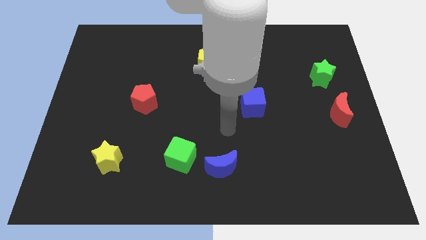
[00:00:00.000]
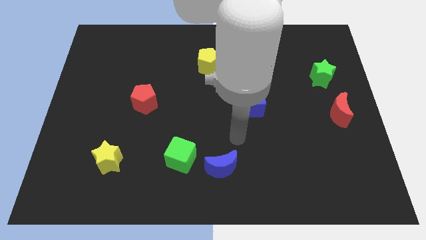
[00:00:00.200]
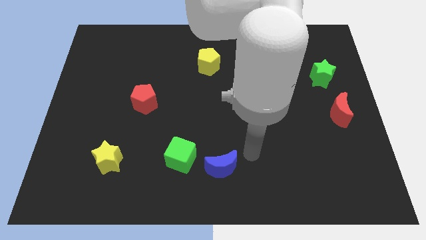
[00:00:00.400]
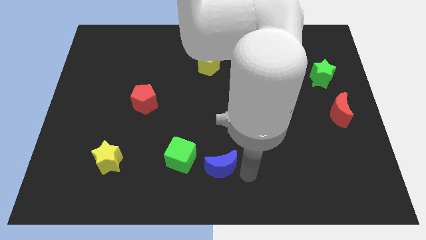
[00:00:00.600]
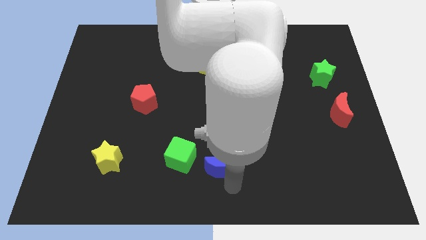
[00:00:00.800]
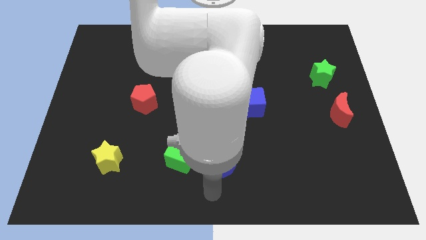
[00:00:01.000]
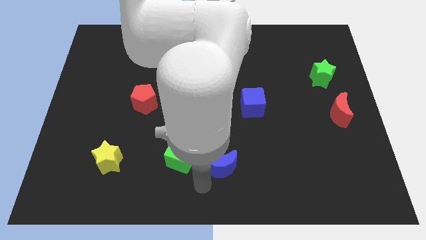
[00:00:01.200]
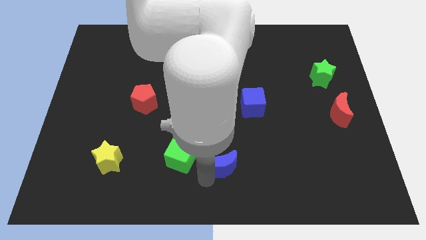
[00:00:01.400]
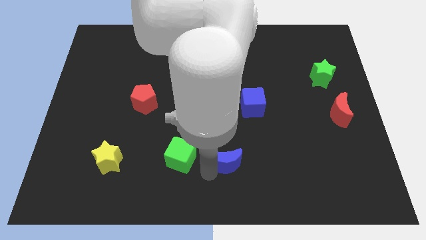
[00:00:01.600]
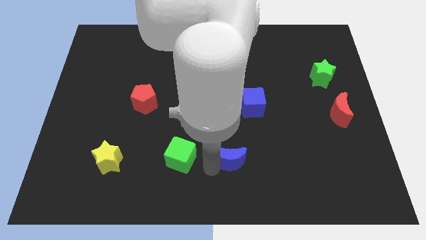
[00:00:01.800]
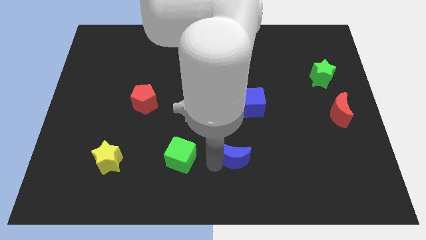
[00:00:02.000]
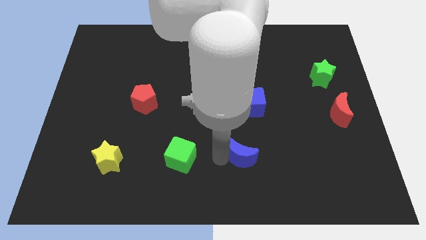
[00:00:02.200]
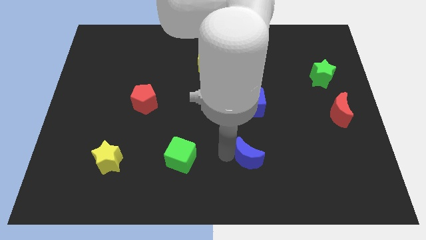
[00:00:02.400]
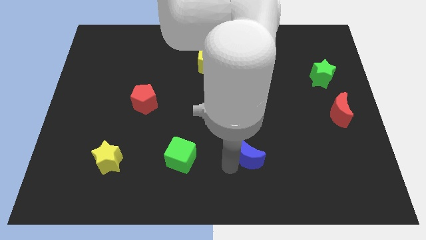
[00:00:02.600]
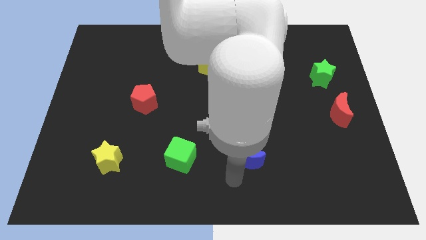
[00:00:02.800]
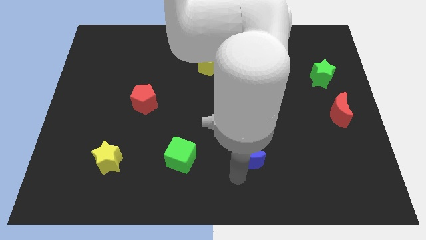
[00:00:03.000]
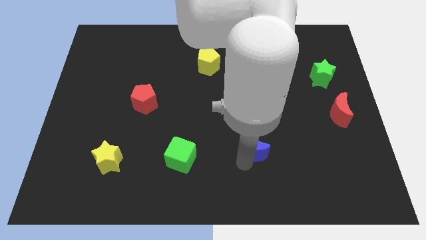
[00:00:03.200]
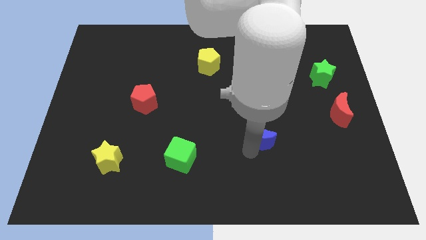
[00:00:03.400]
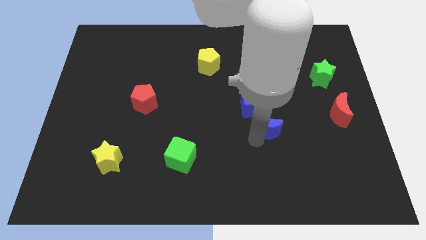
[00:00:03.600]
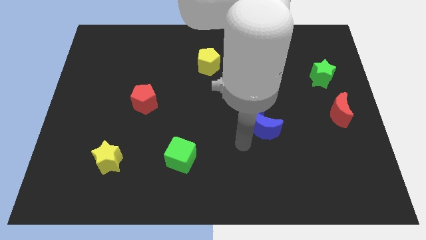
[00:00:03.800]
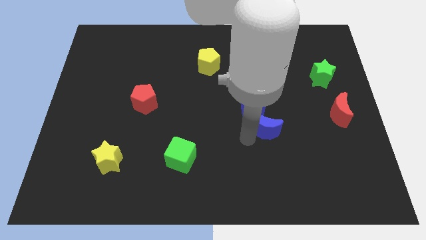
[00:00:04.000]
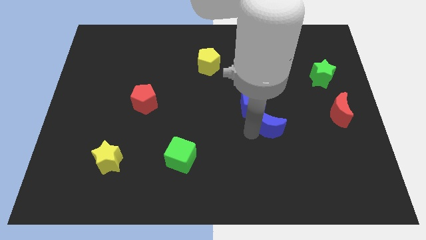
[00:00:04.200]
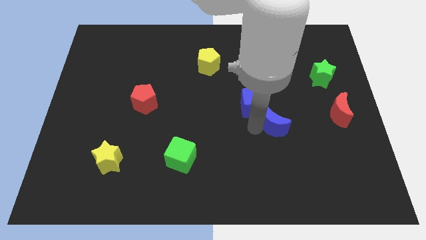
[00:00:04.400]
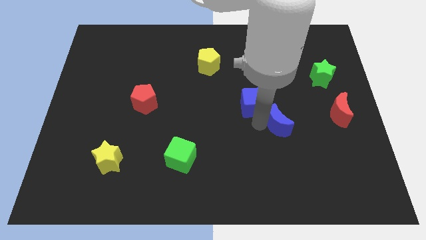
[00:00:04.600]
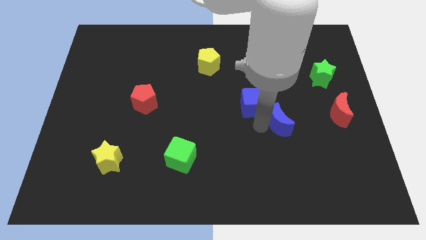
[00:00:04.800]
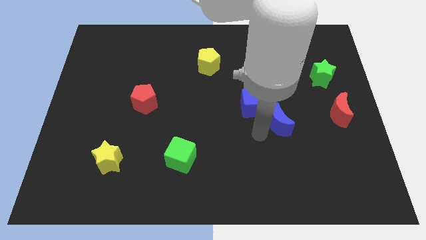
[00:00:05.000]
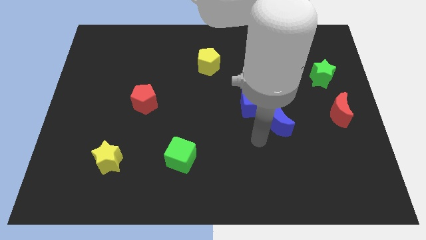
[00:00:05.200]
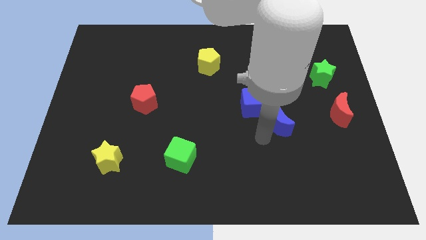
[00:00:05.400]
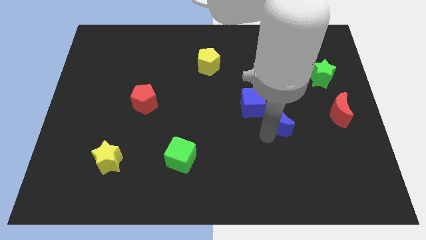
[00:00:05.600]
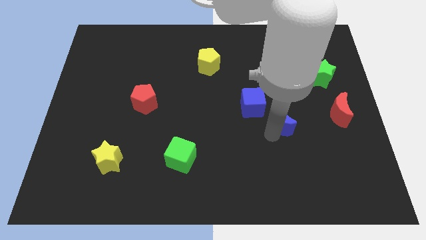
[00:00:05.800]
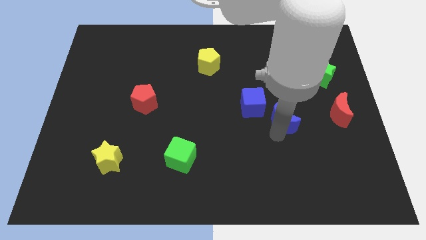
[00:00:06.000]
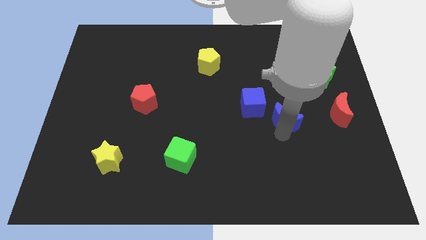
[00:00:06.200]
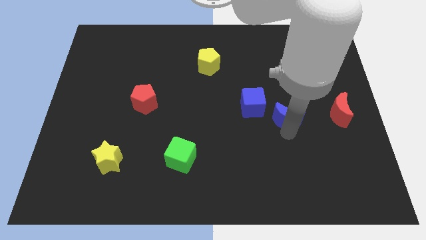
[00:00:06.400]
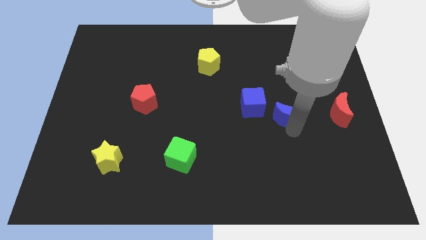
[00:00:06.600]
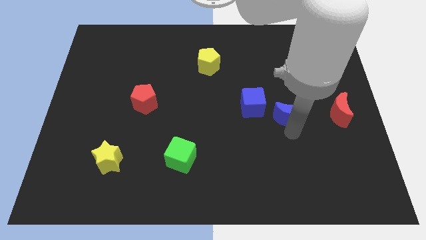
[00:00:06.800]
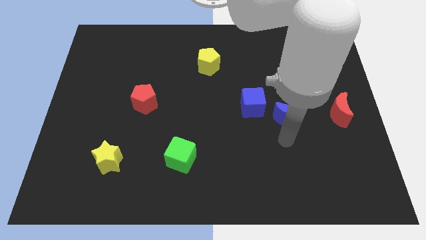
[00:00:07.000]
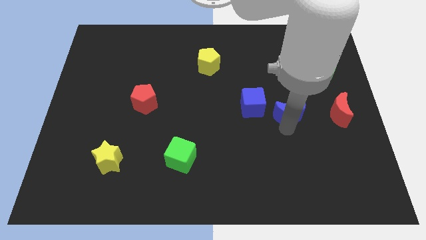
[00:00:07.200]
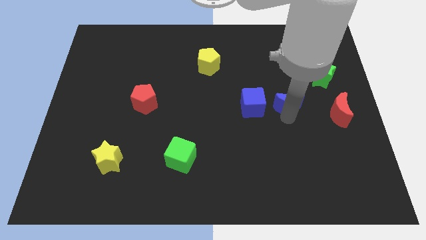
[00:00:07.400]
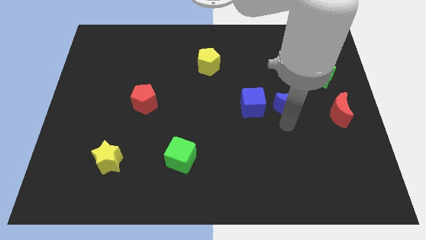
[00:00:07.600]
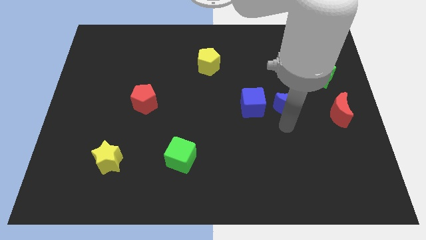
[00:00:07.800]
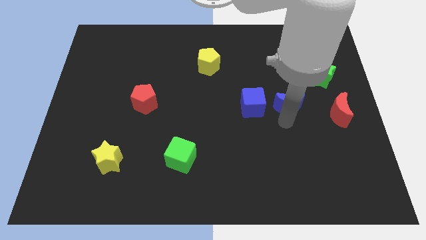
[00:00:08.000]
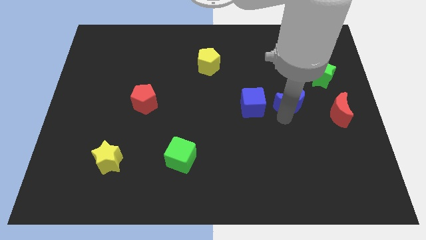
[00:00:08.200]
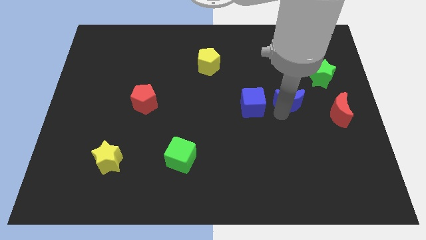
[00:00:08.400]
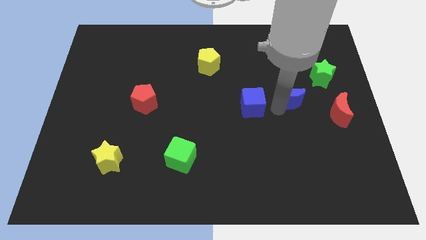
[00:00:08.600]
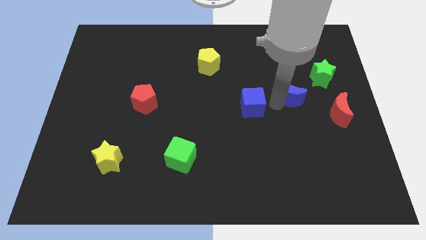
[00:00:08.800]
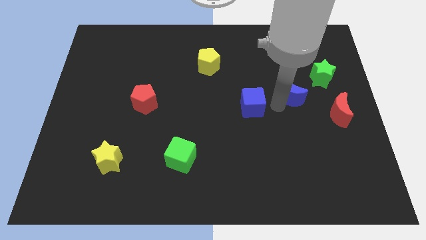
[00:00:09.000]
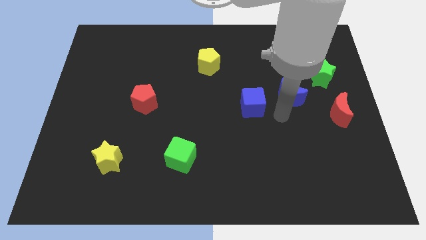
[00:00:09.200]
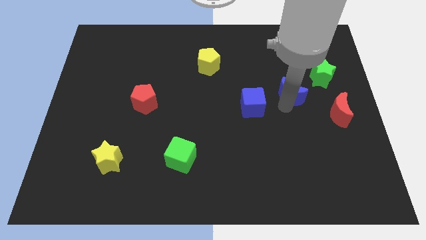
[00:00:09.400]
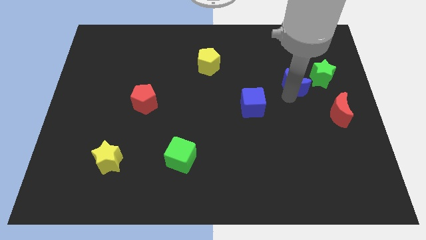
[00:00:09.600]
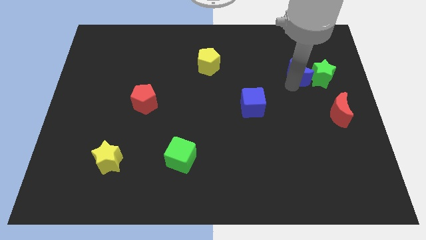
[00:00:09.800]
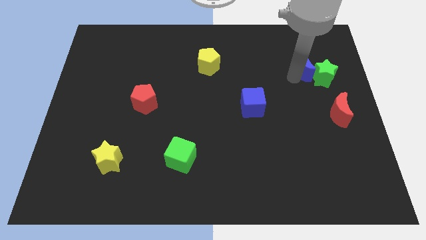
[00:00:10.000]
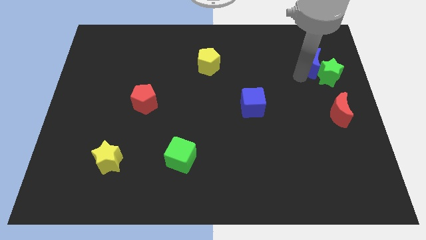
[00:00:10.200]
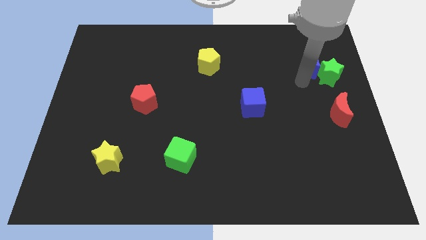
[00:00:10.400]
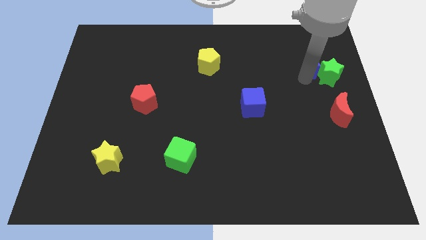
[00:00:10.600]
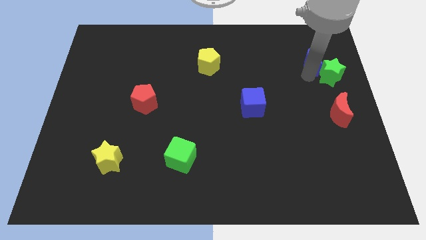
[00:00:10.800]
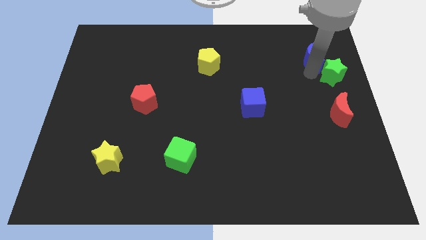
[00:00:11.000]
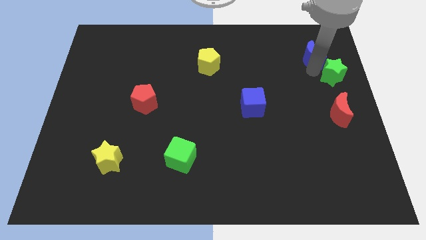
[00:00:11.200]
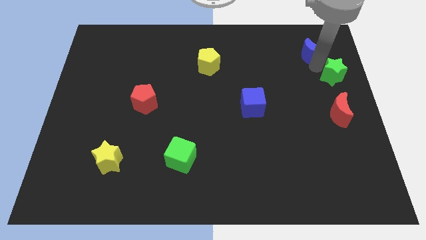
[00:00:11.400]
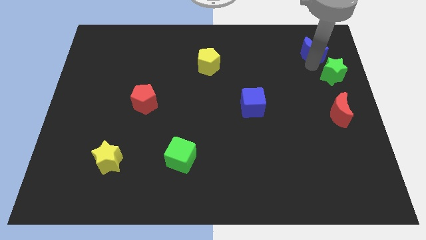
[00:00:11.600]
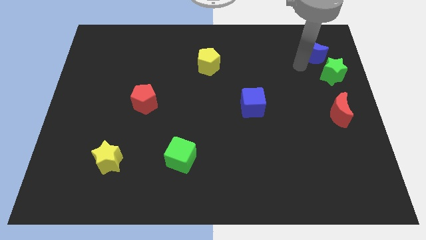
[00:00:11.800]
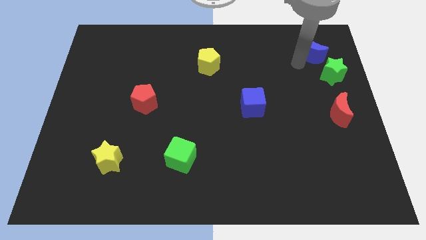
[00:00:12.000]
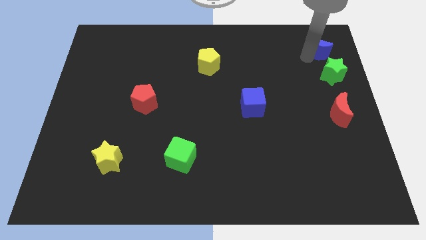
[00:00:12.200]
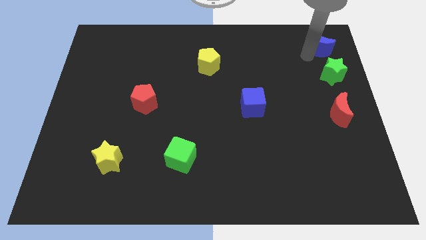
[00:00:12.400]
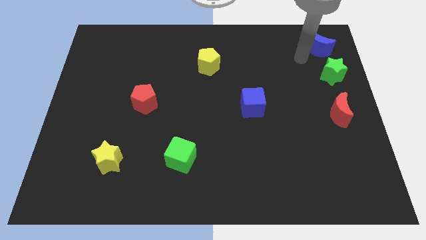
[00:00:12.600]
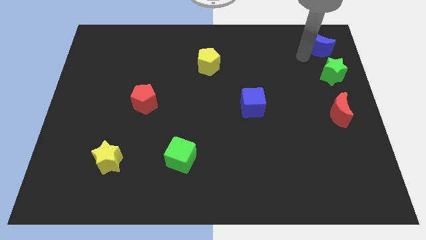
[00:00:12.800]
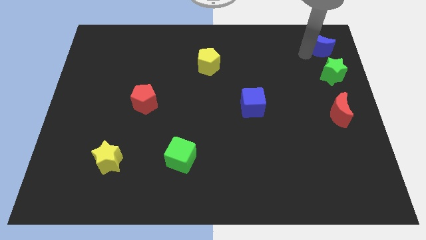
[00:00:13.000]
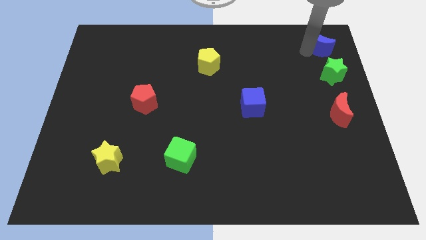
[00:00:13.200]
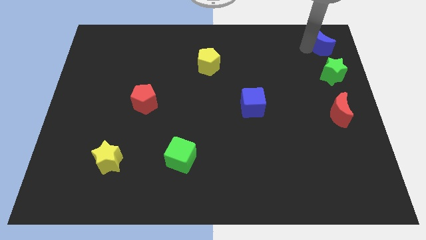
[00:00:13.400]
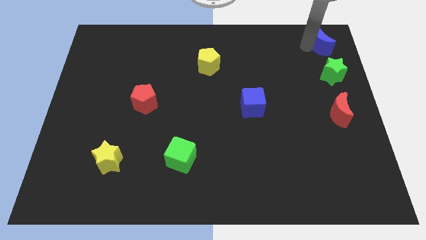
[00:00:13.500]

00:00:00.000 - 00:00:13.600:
slide the blue moon to the top right of the board

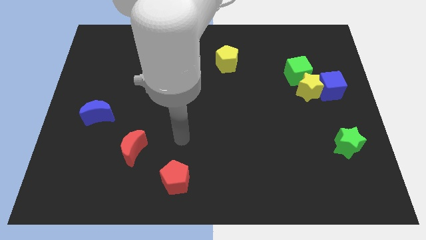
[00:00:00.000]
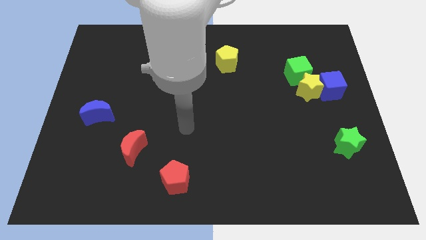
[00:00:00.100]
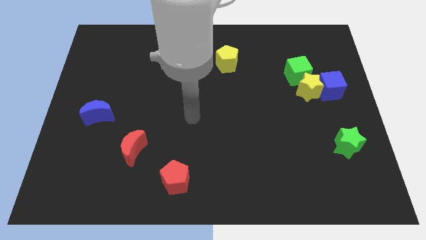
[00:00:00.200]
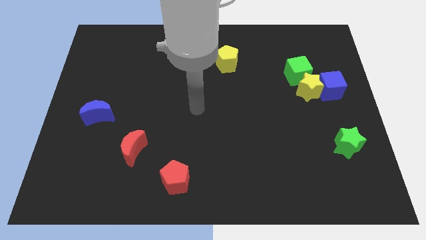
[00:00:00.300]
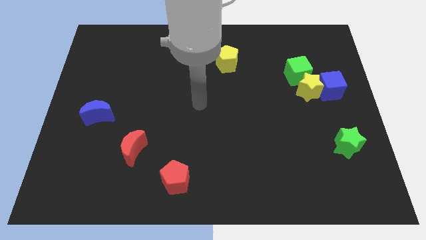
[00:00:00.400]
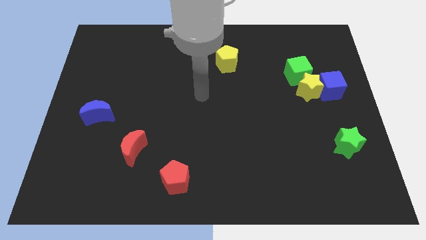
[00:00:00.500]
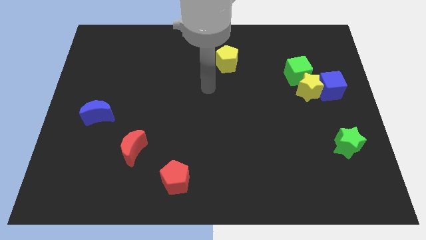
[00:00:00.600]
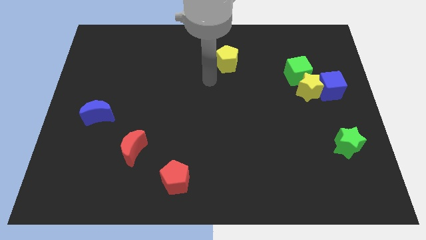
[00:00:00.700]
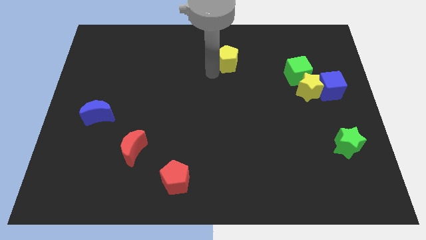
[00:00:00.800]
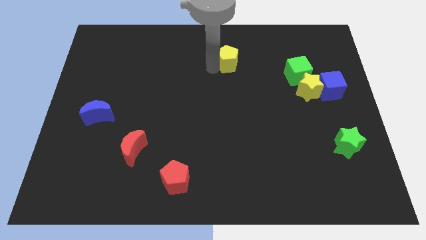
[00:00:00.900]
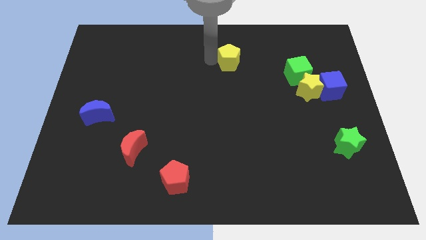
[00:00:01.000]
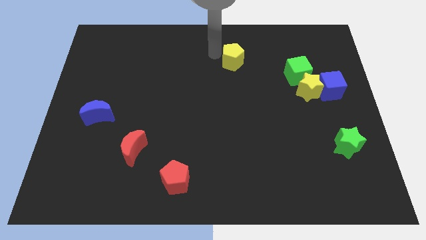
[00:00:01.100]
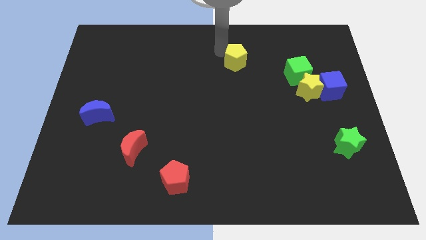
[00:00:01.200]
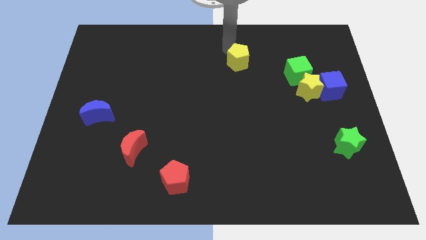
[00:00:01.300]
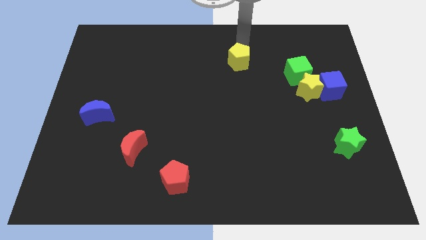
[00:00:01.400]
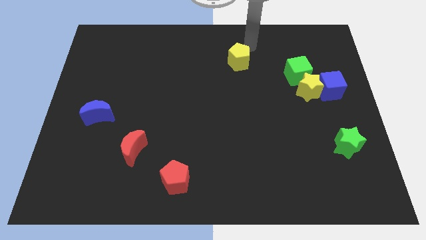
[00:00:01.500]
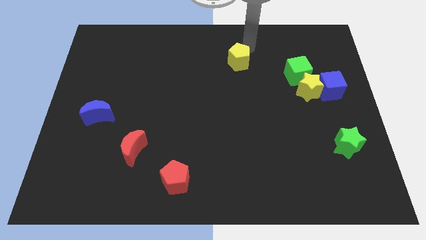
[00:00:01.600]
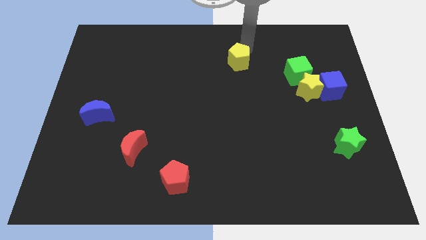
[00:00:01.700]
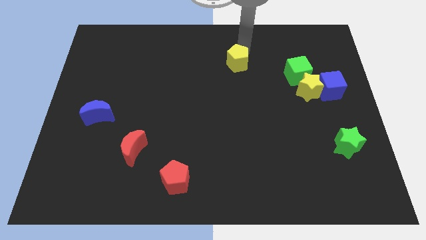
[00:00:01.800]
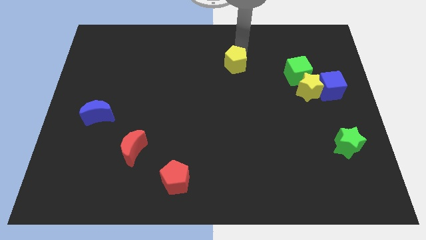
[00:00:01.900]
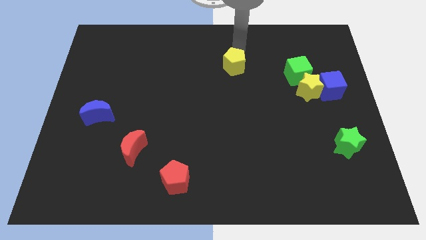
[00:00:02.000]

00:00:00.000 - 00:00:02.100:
put the yellow pentagon to the middle
